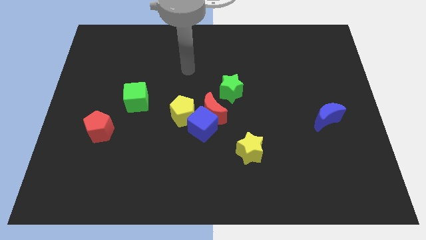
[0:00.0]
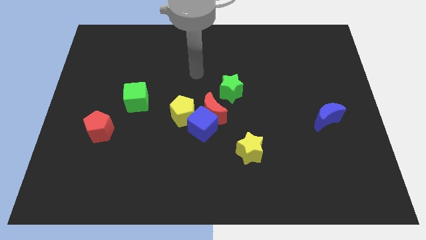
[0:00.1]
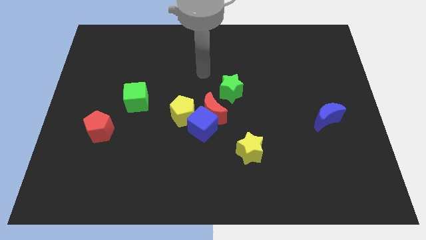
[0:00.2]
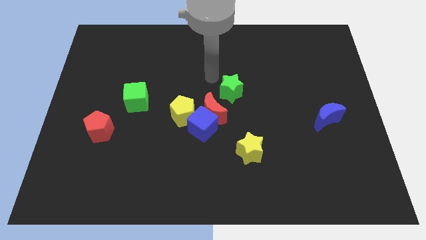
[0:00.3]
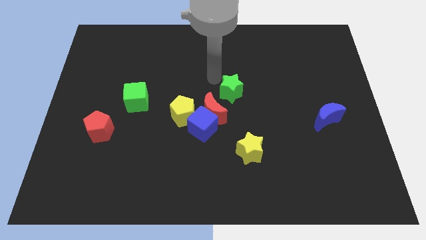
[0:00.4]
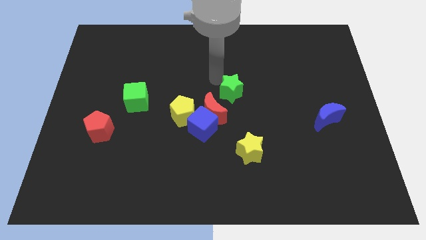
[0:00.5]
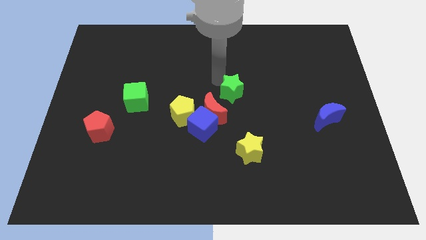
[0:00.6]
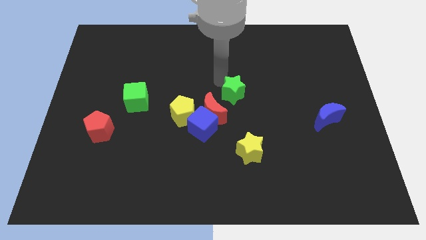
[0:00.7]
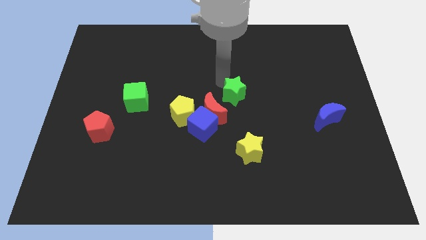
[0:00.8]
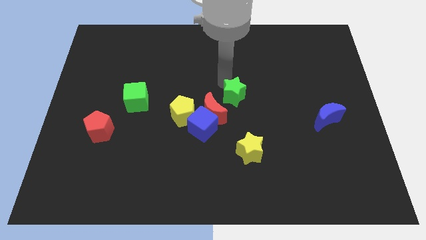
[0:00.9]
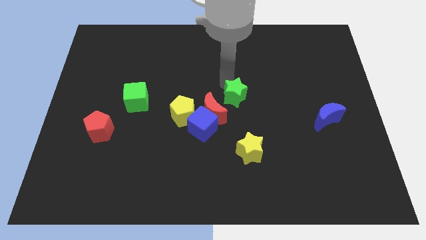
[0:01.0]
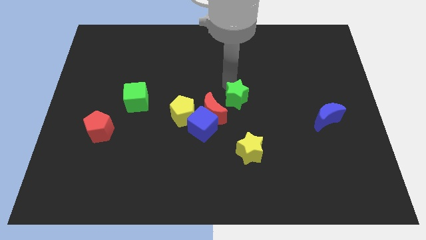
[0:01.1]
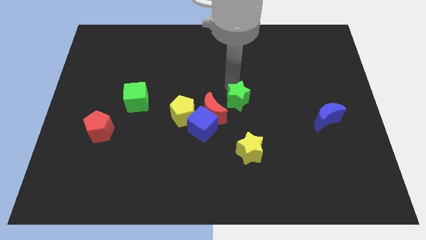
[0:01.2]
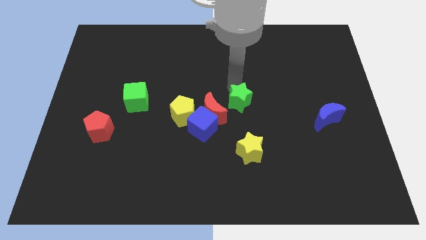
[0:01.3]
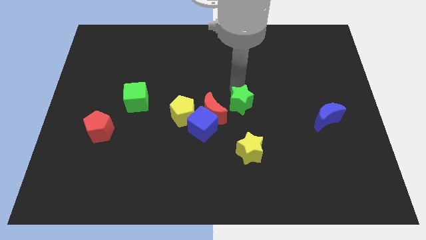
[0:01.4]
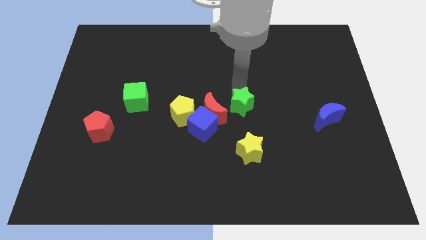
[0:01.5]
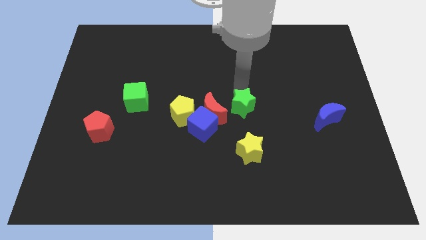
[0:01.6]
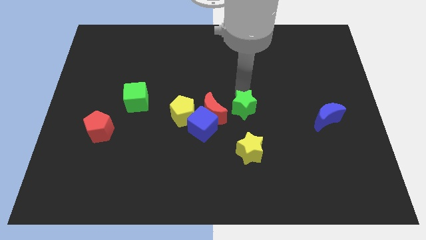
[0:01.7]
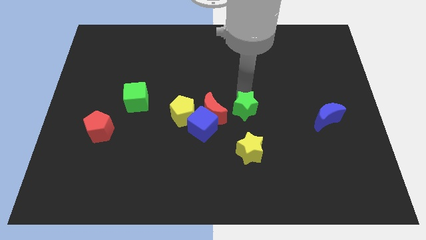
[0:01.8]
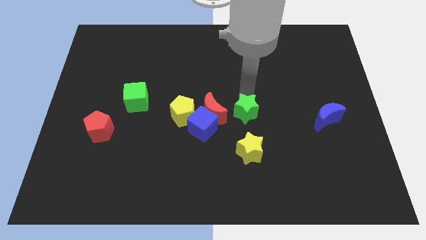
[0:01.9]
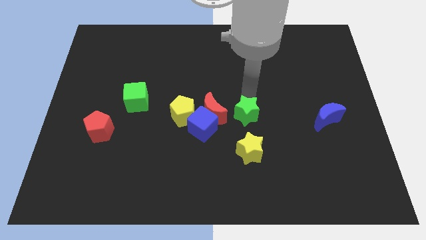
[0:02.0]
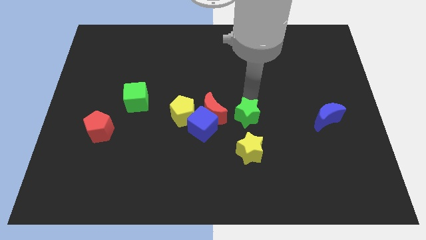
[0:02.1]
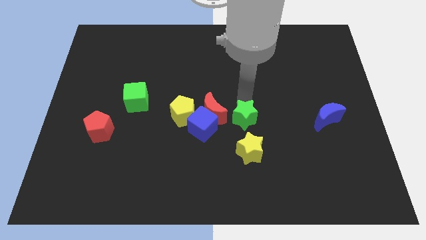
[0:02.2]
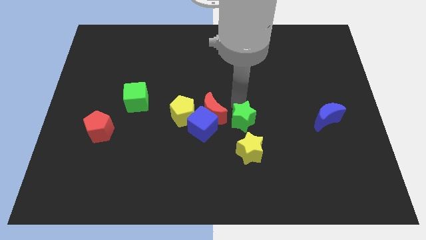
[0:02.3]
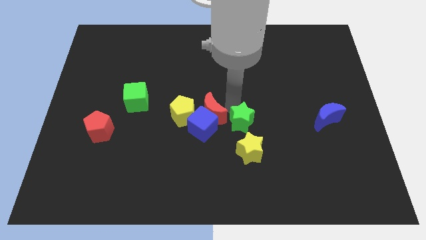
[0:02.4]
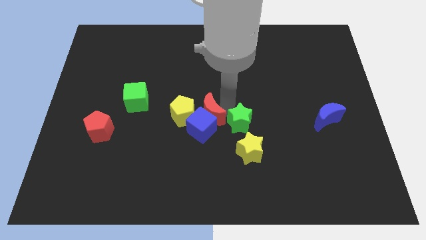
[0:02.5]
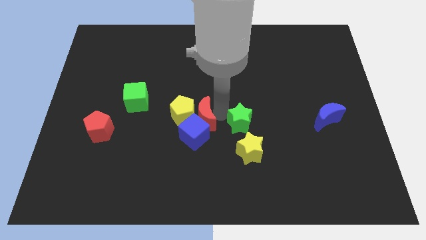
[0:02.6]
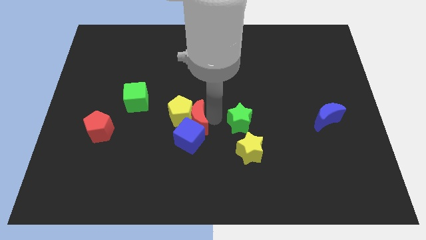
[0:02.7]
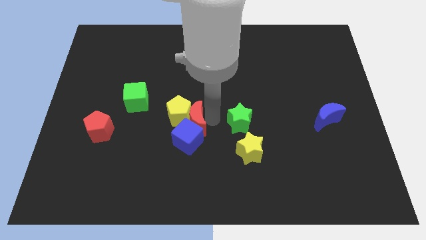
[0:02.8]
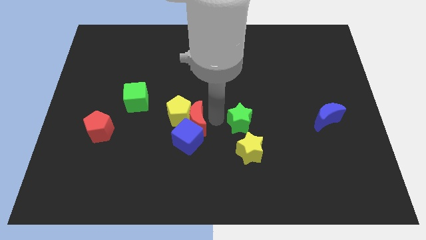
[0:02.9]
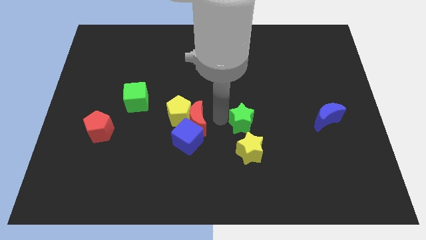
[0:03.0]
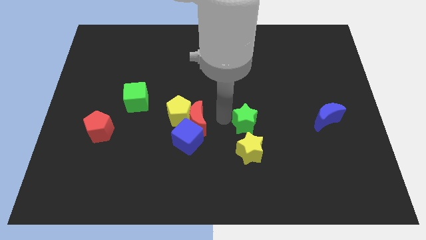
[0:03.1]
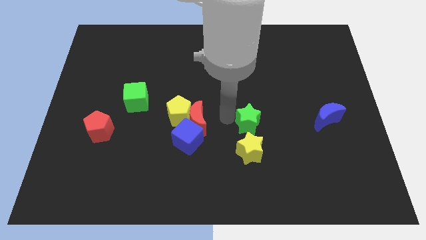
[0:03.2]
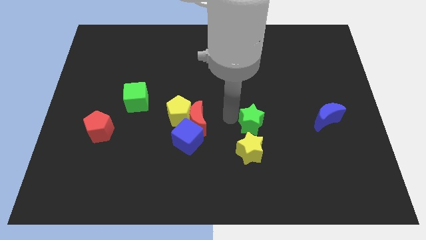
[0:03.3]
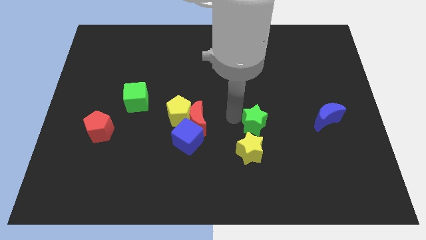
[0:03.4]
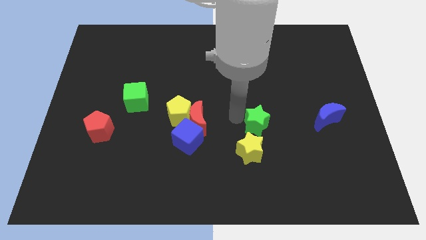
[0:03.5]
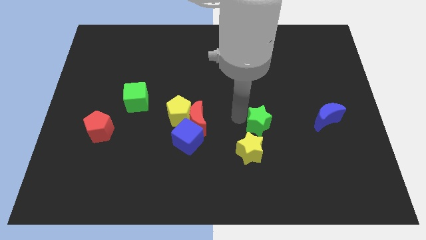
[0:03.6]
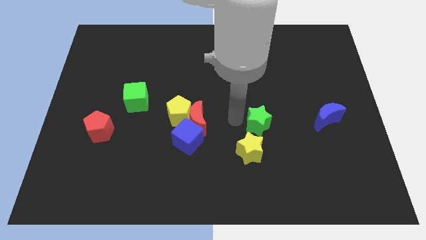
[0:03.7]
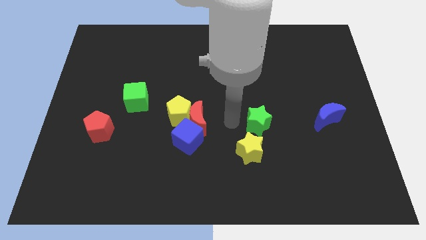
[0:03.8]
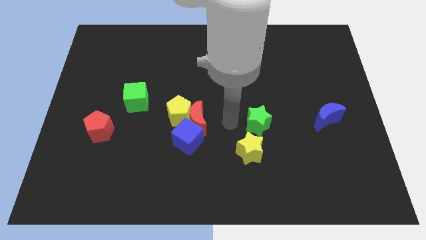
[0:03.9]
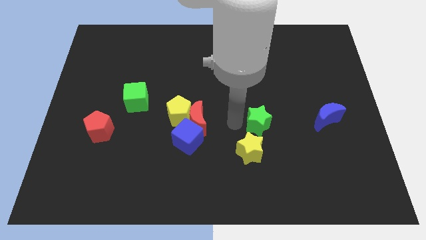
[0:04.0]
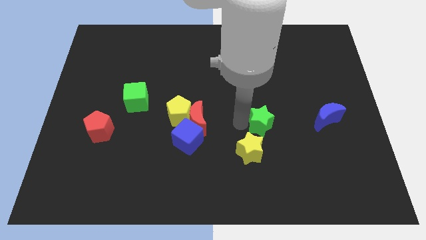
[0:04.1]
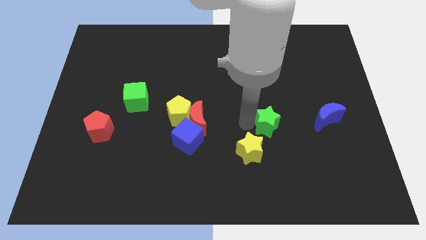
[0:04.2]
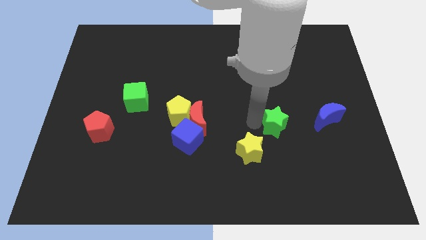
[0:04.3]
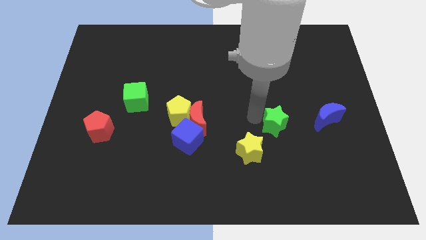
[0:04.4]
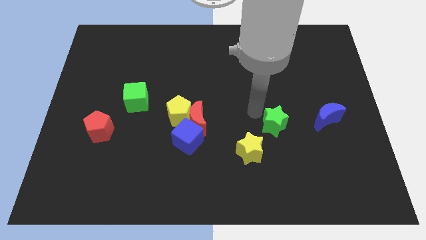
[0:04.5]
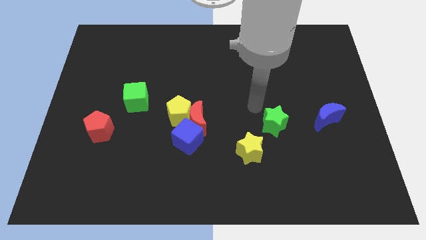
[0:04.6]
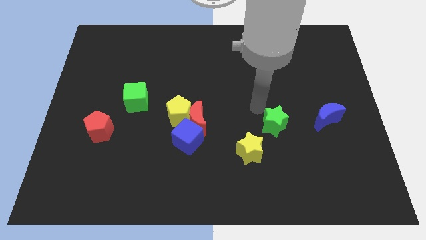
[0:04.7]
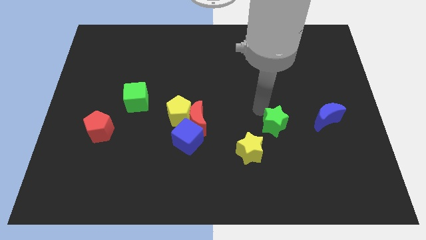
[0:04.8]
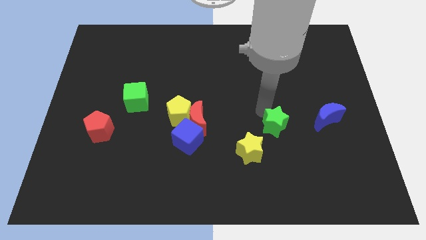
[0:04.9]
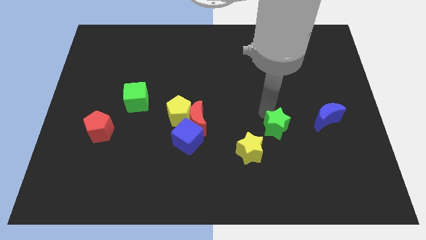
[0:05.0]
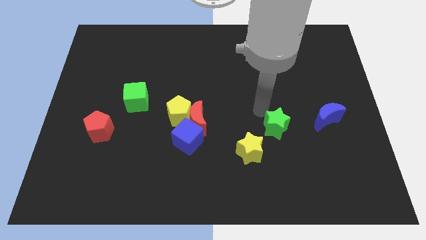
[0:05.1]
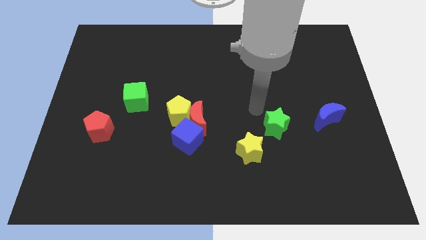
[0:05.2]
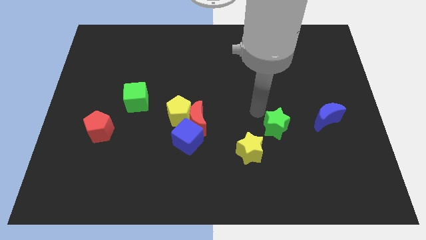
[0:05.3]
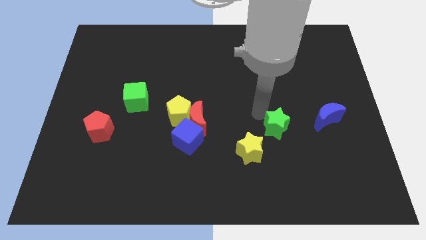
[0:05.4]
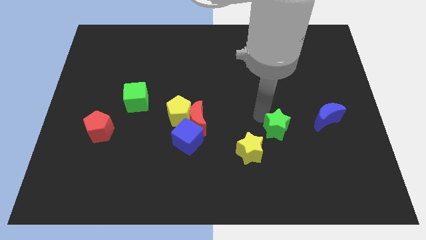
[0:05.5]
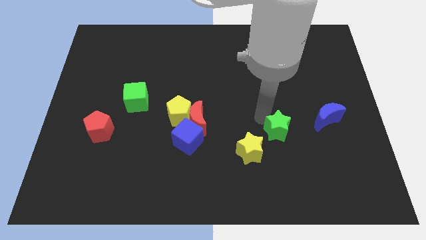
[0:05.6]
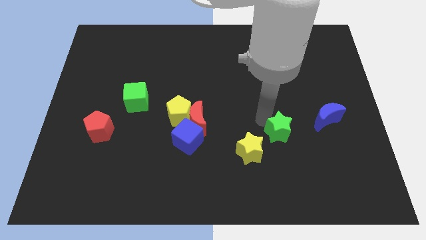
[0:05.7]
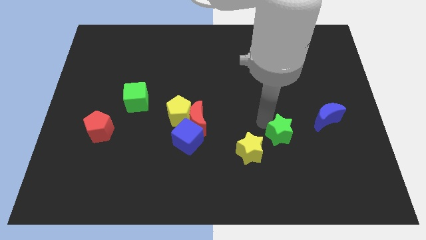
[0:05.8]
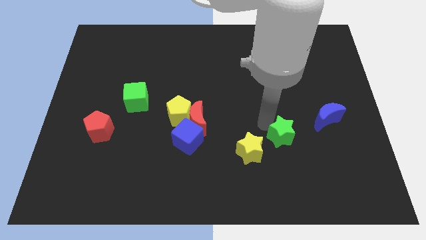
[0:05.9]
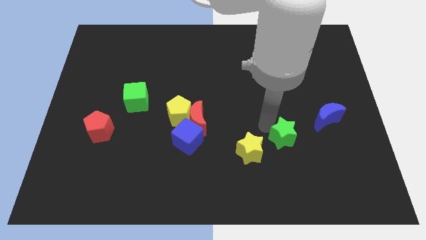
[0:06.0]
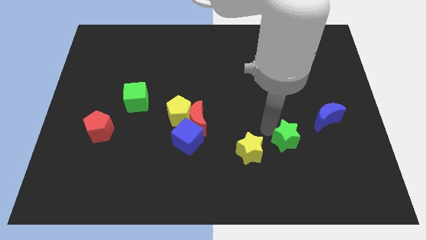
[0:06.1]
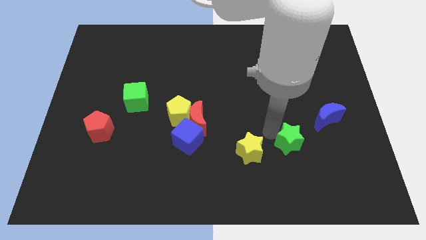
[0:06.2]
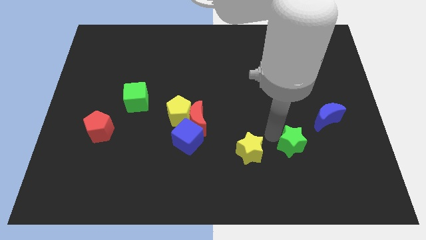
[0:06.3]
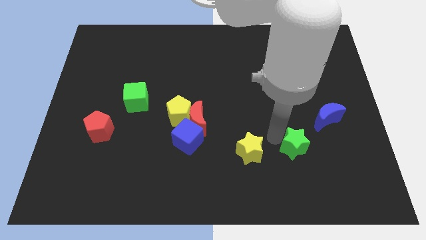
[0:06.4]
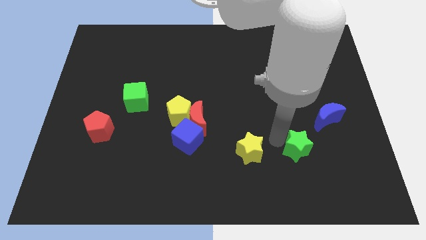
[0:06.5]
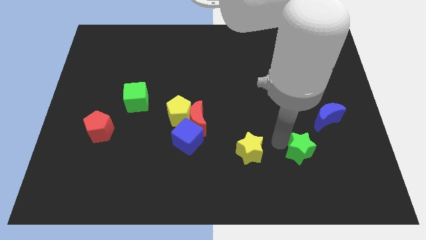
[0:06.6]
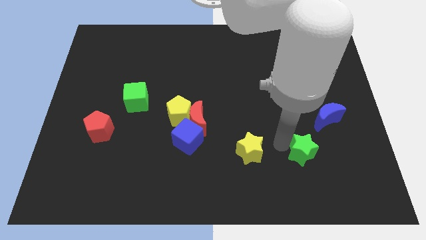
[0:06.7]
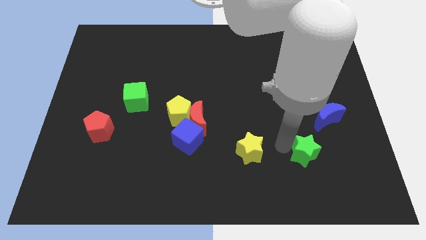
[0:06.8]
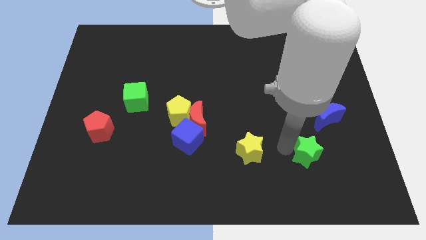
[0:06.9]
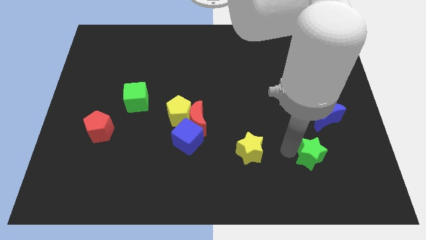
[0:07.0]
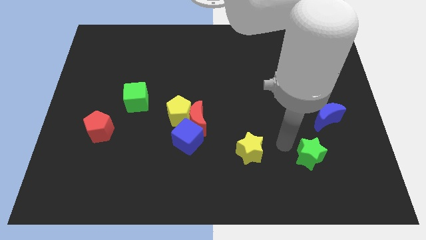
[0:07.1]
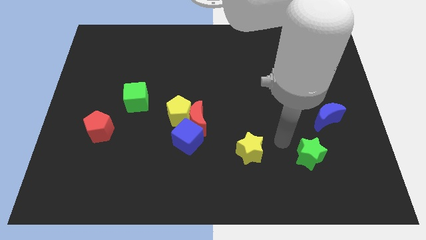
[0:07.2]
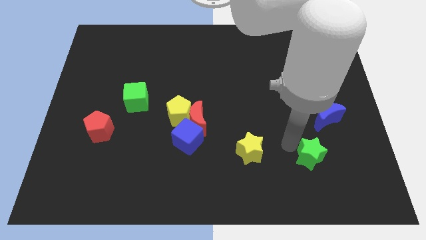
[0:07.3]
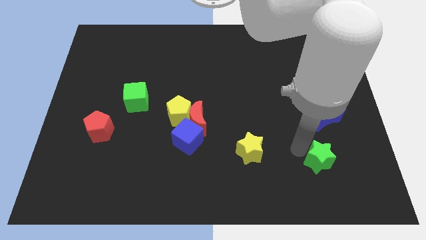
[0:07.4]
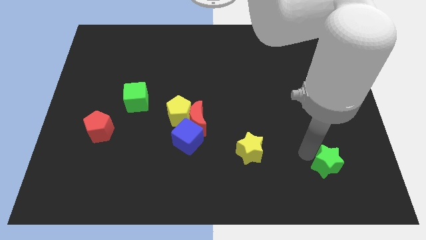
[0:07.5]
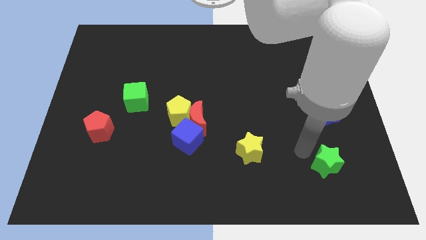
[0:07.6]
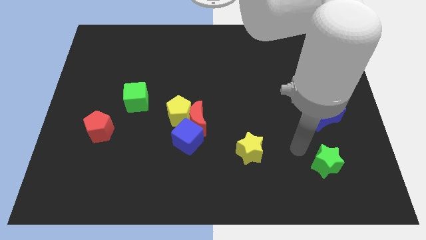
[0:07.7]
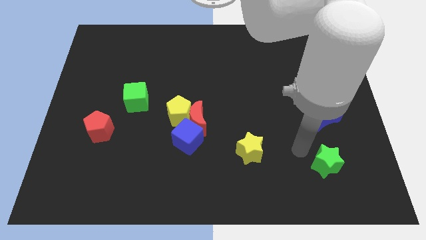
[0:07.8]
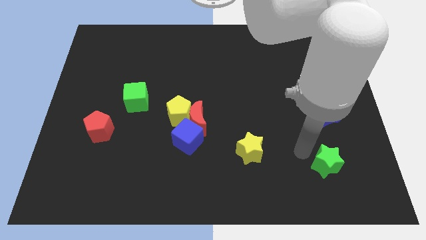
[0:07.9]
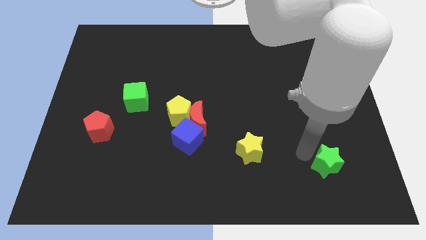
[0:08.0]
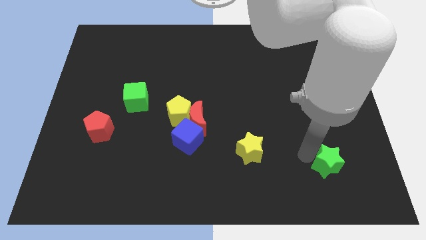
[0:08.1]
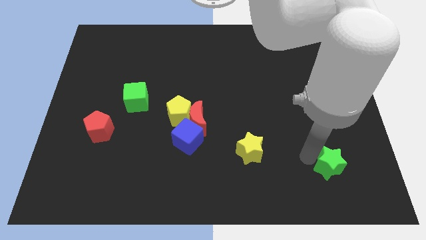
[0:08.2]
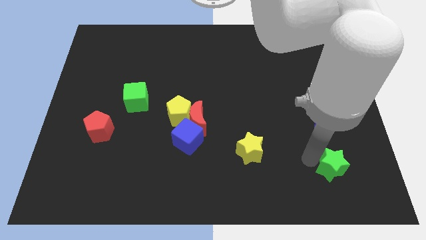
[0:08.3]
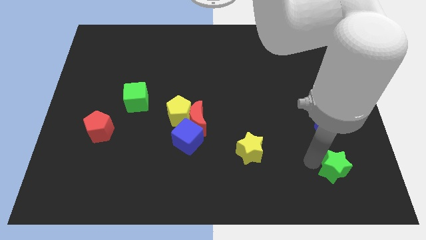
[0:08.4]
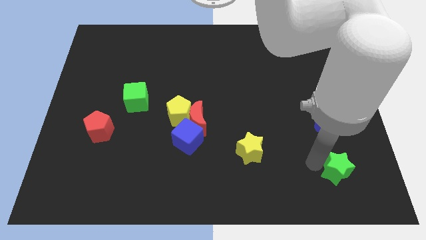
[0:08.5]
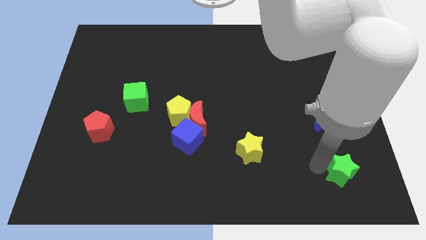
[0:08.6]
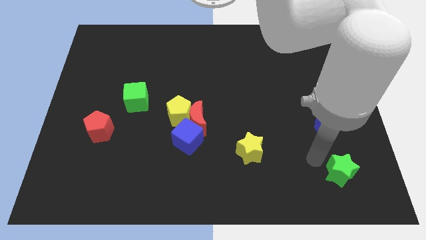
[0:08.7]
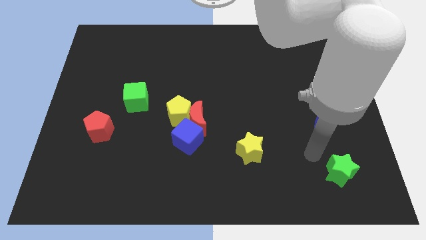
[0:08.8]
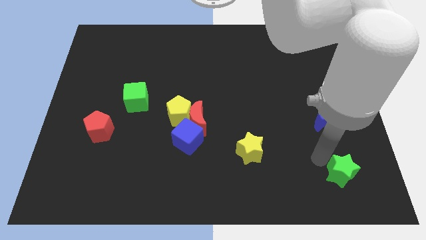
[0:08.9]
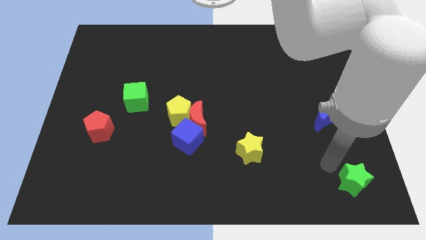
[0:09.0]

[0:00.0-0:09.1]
slide the green star to the bottom right
